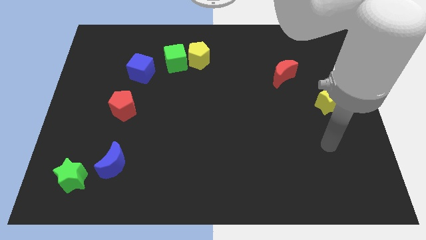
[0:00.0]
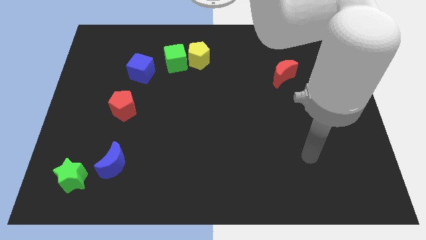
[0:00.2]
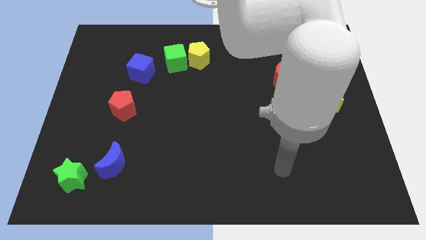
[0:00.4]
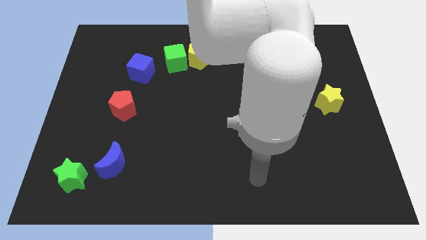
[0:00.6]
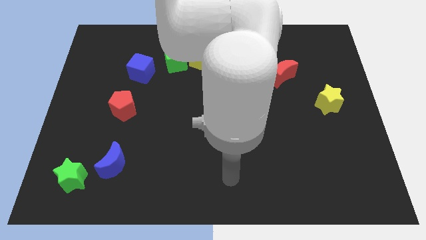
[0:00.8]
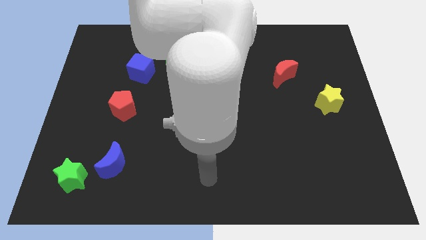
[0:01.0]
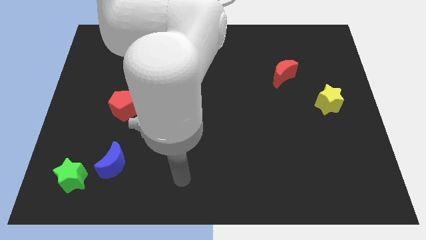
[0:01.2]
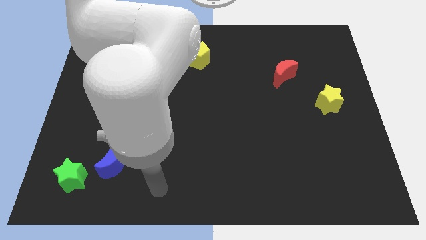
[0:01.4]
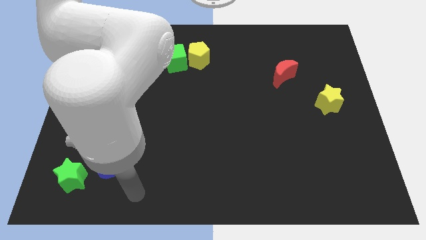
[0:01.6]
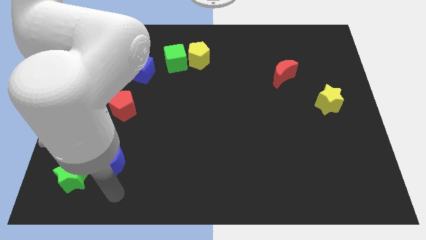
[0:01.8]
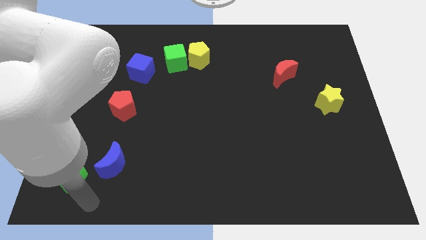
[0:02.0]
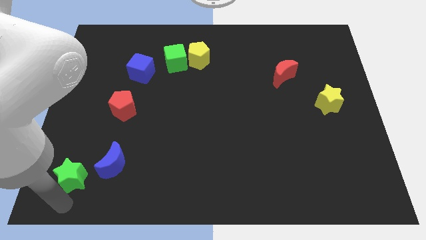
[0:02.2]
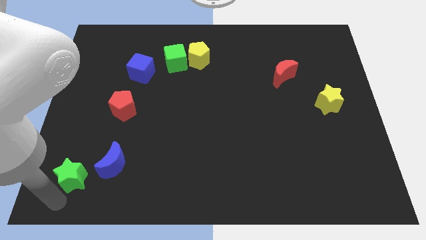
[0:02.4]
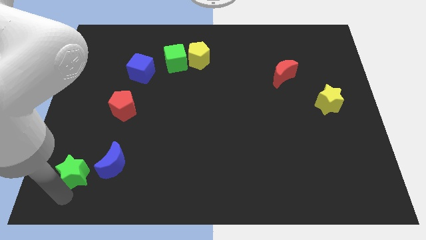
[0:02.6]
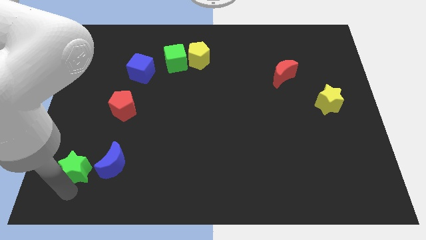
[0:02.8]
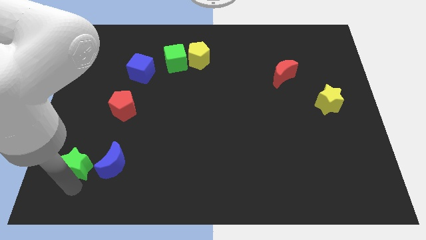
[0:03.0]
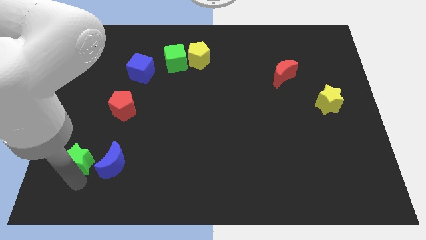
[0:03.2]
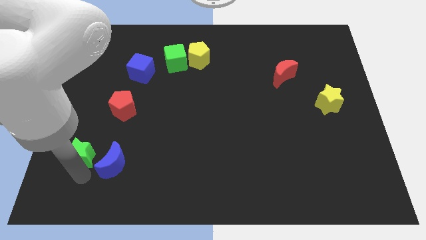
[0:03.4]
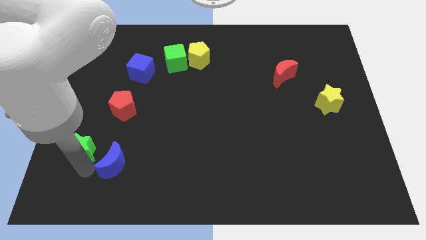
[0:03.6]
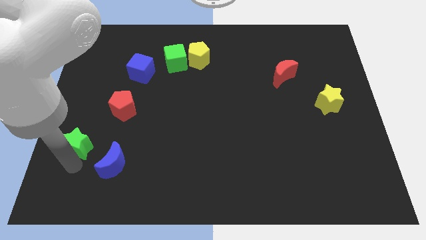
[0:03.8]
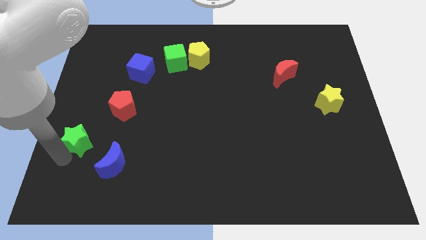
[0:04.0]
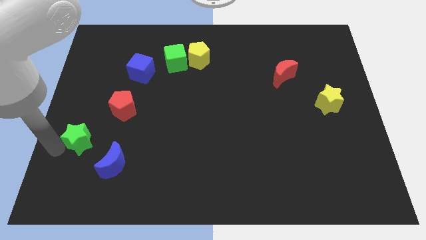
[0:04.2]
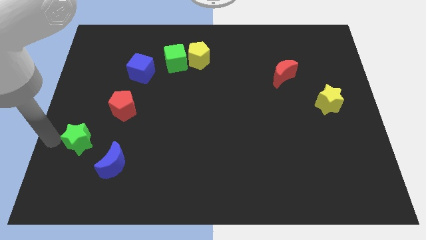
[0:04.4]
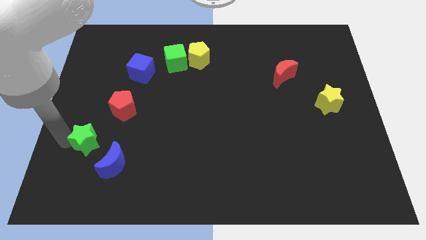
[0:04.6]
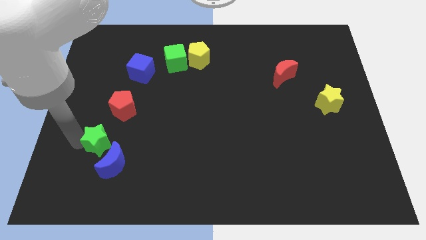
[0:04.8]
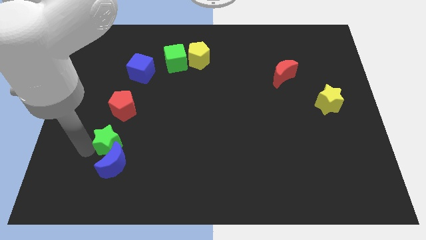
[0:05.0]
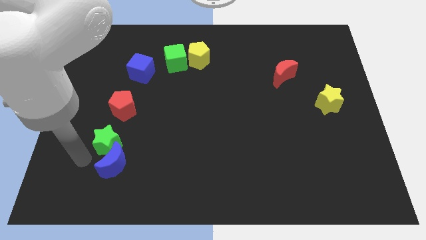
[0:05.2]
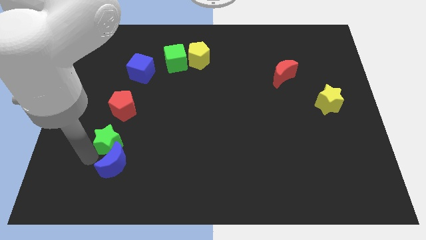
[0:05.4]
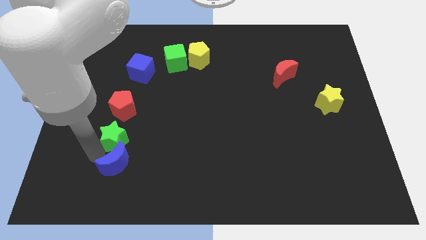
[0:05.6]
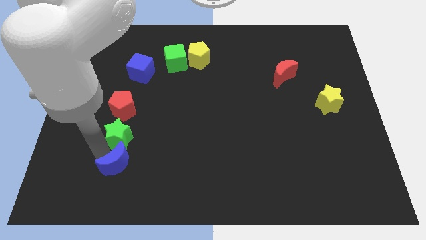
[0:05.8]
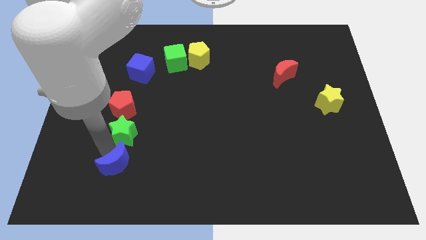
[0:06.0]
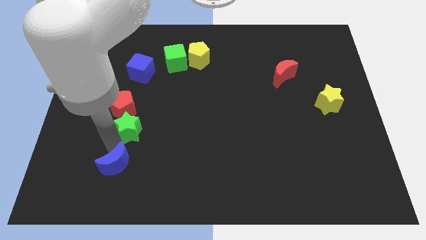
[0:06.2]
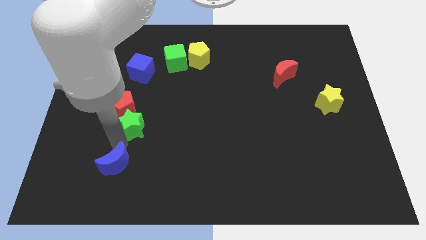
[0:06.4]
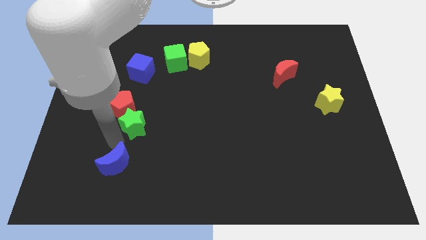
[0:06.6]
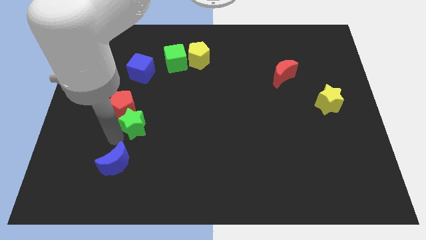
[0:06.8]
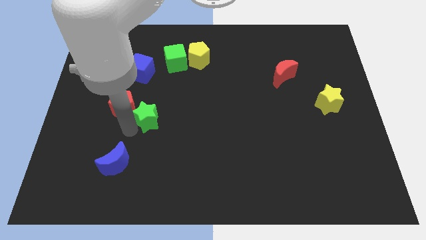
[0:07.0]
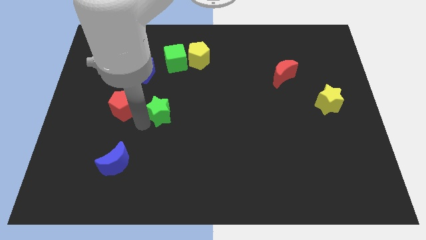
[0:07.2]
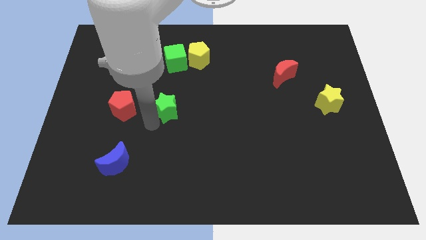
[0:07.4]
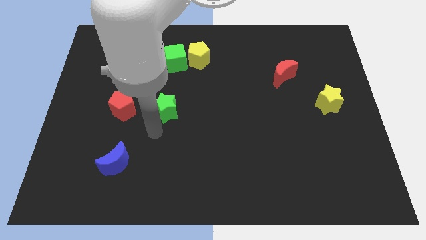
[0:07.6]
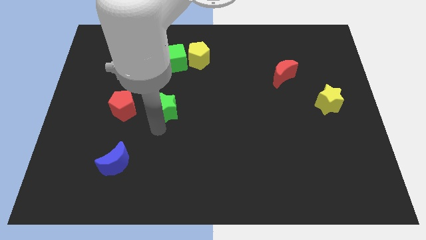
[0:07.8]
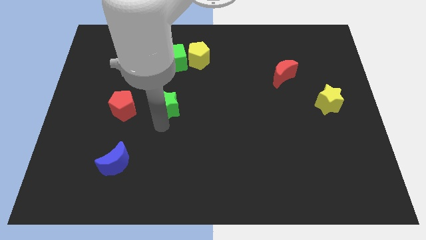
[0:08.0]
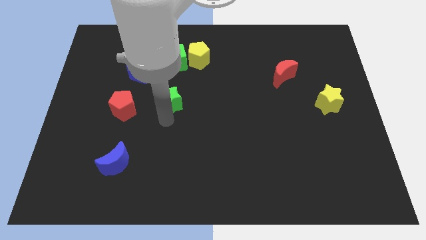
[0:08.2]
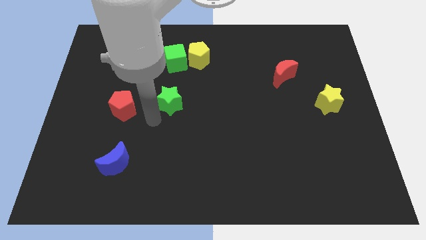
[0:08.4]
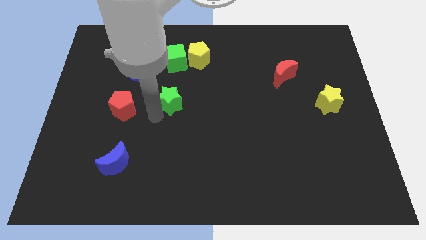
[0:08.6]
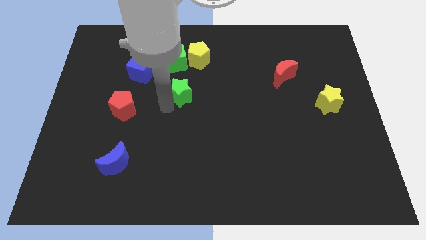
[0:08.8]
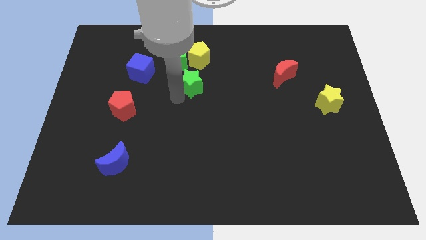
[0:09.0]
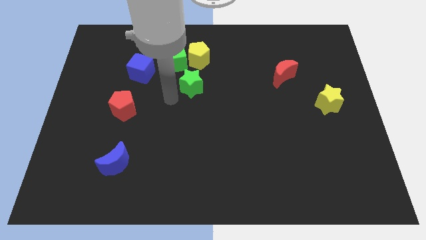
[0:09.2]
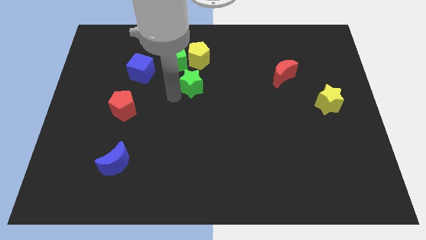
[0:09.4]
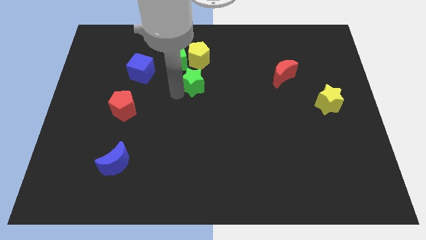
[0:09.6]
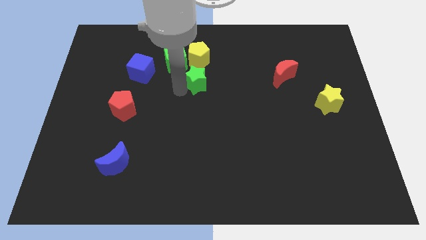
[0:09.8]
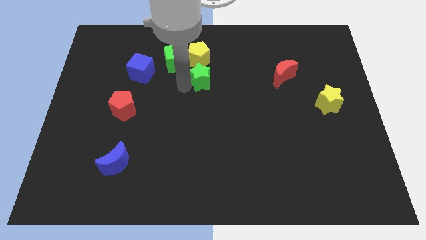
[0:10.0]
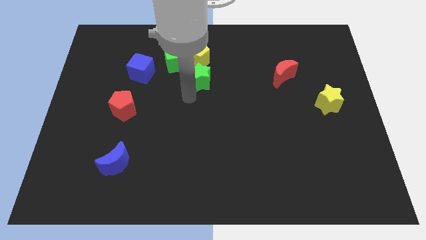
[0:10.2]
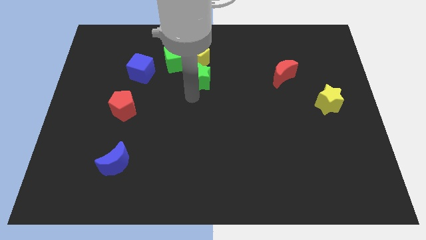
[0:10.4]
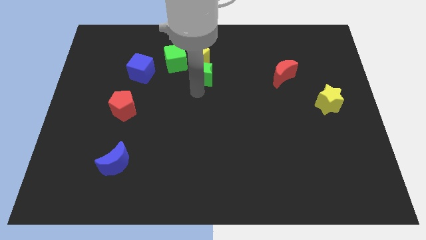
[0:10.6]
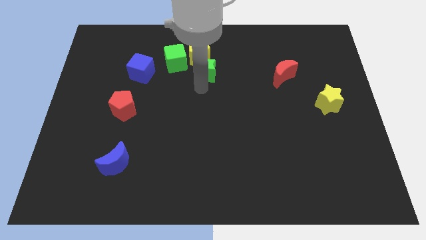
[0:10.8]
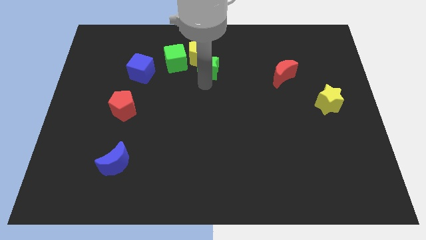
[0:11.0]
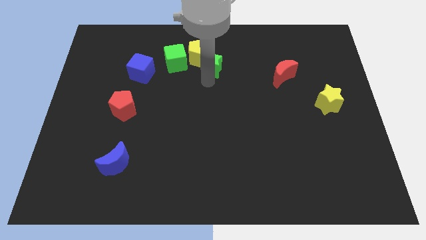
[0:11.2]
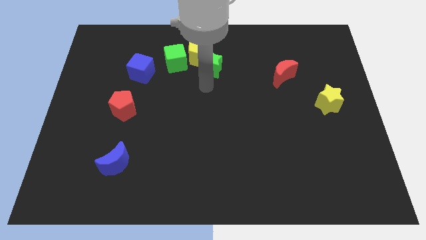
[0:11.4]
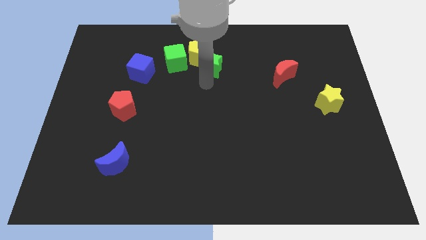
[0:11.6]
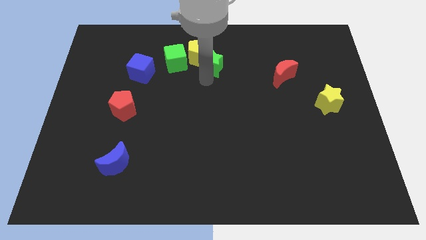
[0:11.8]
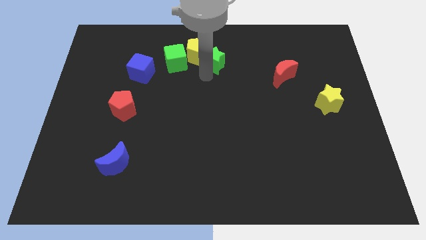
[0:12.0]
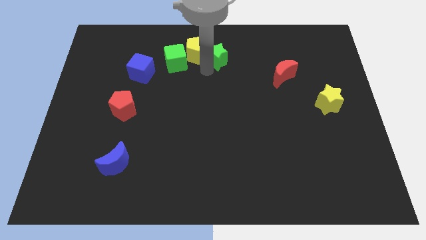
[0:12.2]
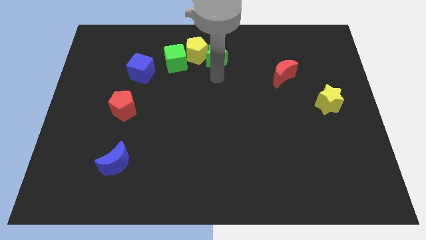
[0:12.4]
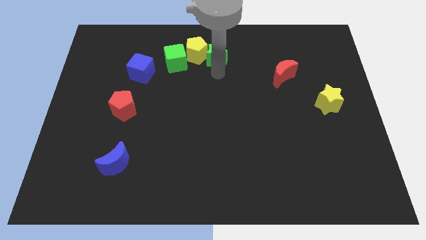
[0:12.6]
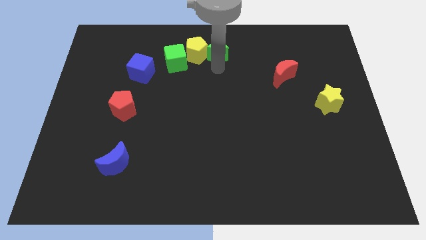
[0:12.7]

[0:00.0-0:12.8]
put the green star to the towards your base
